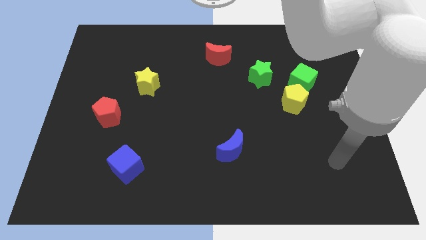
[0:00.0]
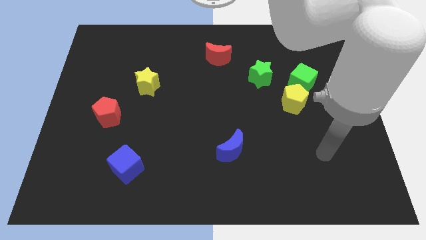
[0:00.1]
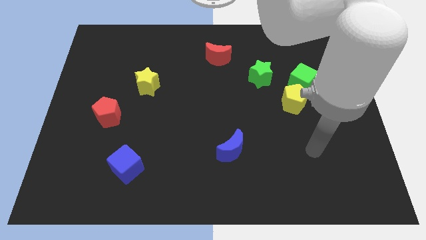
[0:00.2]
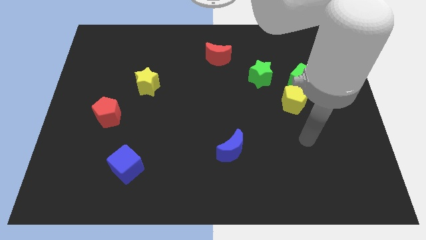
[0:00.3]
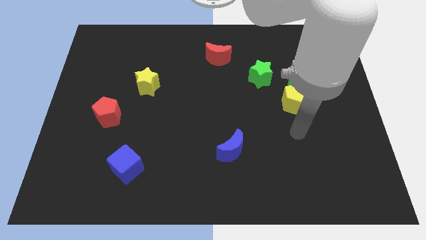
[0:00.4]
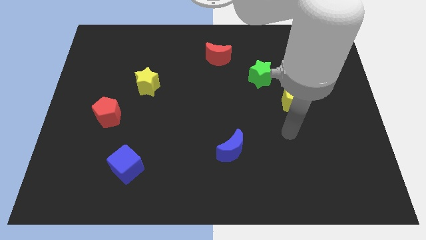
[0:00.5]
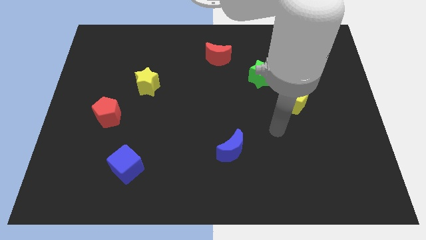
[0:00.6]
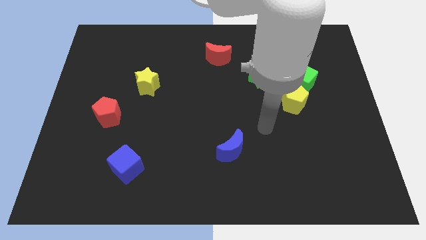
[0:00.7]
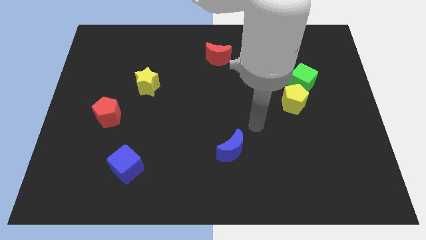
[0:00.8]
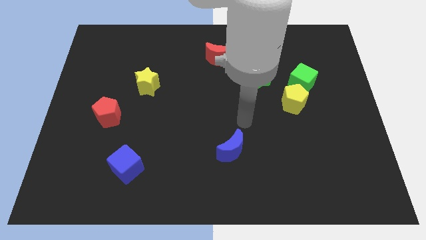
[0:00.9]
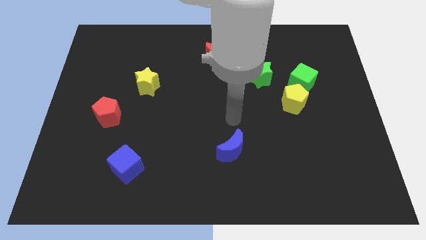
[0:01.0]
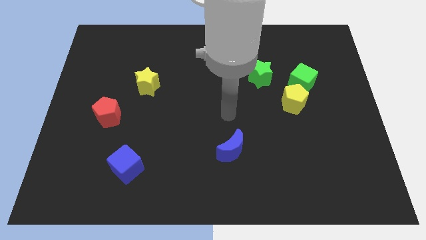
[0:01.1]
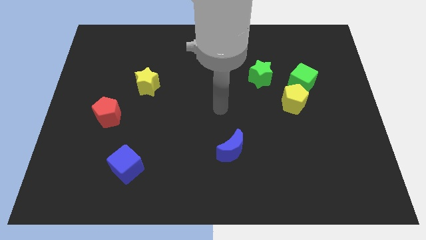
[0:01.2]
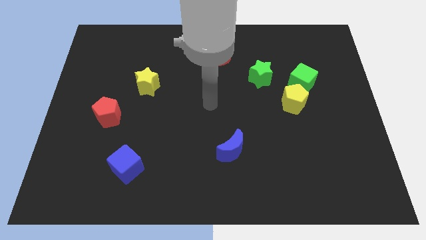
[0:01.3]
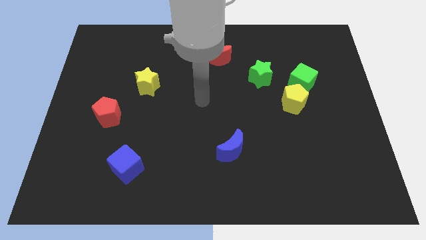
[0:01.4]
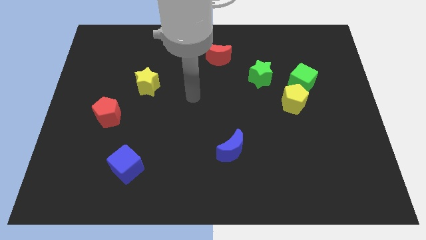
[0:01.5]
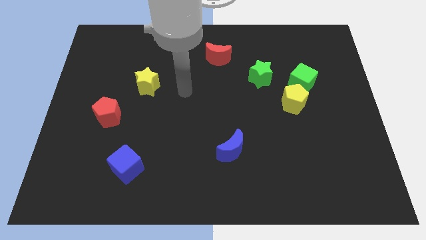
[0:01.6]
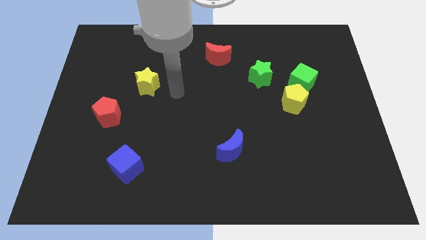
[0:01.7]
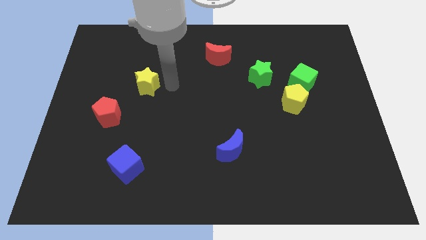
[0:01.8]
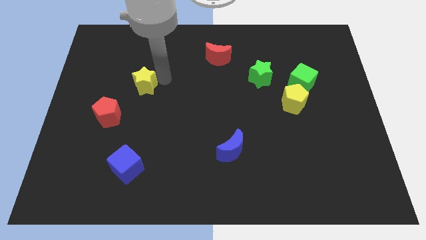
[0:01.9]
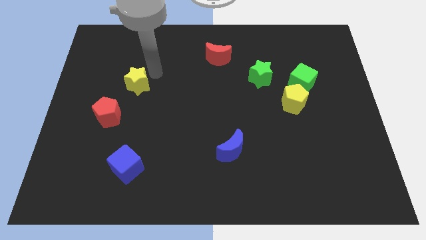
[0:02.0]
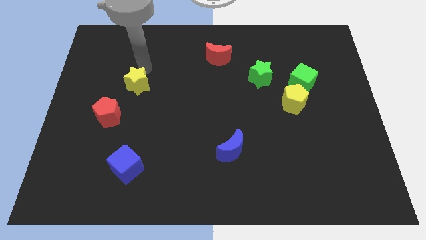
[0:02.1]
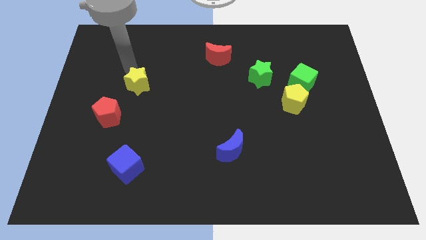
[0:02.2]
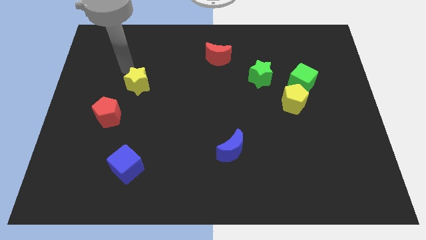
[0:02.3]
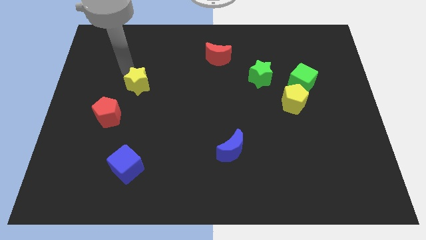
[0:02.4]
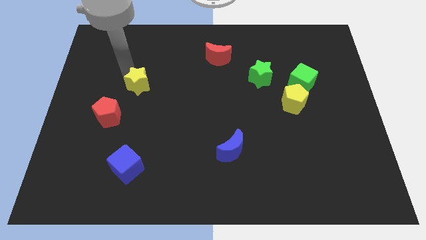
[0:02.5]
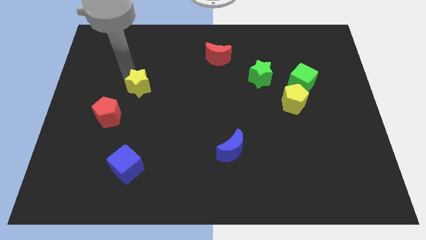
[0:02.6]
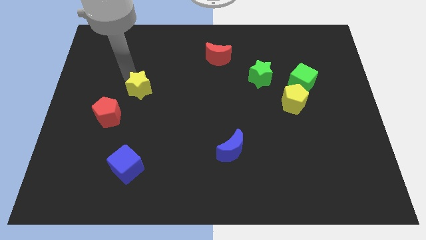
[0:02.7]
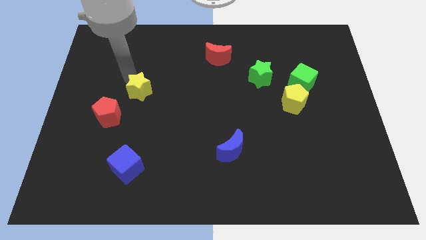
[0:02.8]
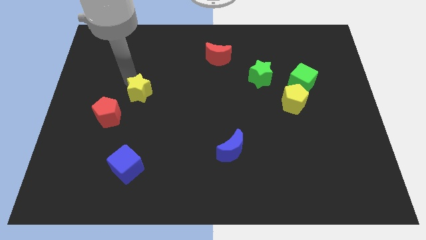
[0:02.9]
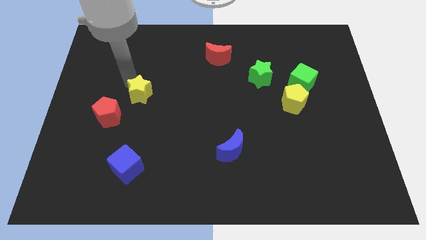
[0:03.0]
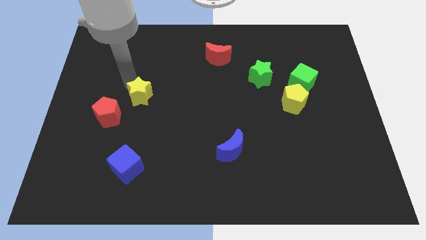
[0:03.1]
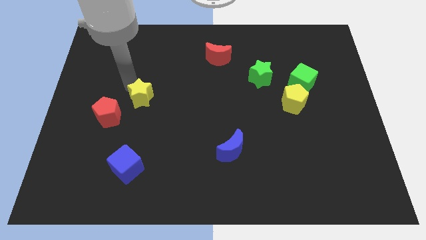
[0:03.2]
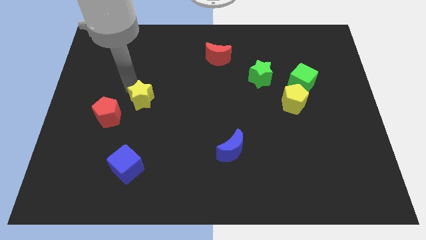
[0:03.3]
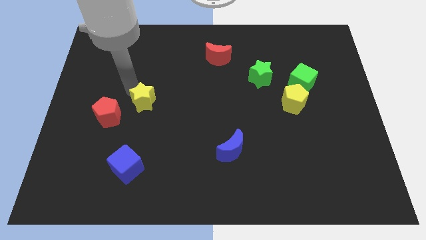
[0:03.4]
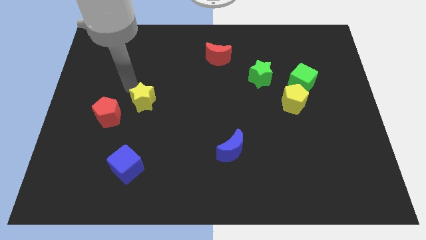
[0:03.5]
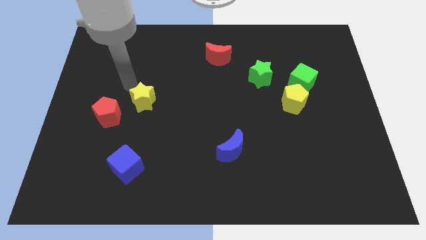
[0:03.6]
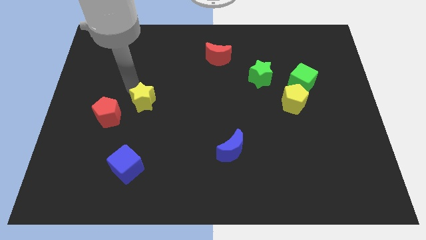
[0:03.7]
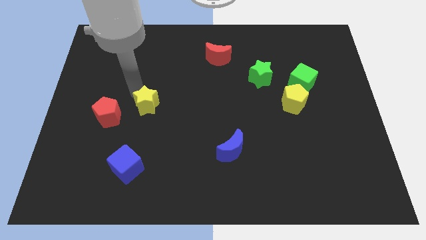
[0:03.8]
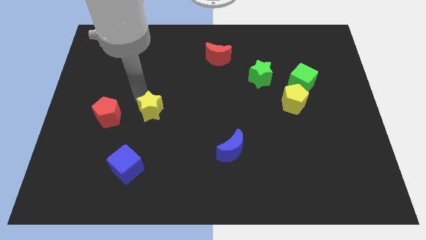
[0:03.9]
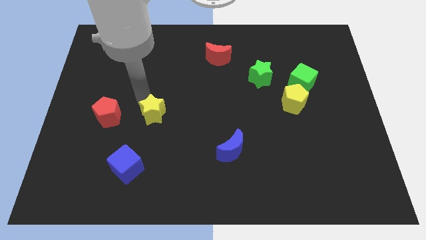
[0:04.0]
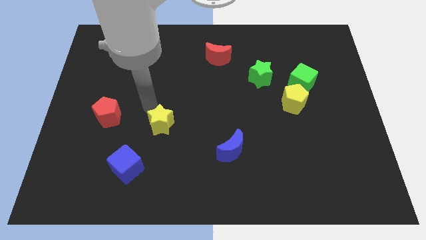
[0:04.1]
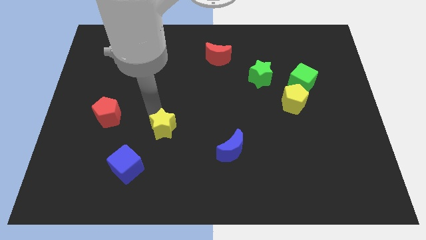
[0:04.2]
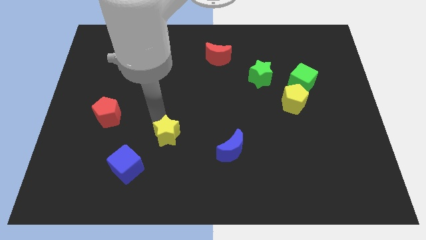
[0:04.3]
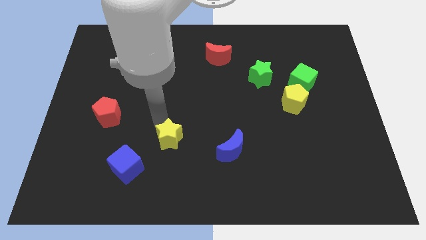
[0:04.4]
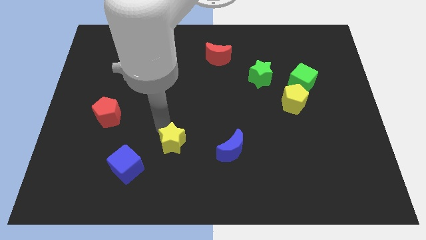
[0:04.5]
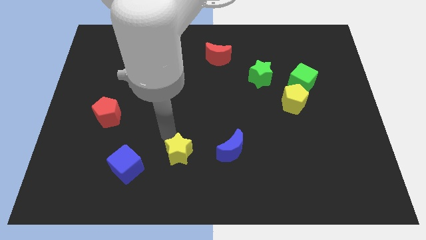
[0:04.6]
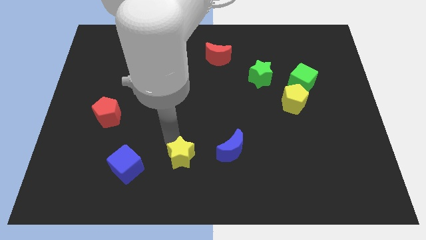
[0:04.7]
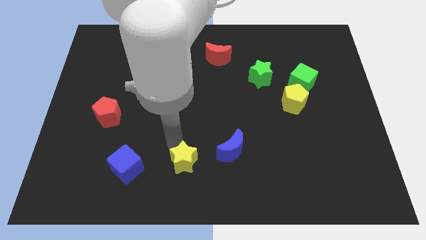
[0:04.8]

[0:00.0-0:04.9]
slide the yellow star to the bottom

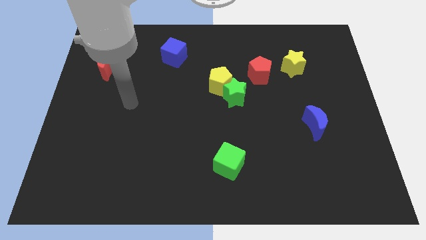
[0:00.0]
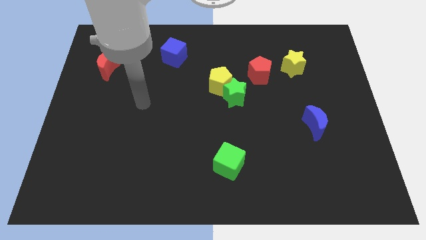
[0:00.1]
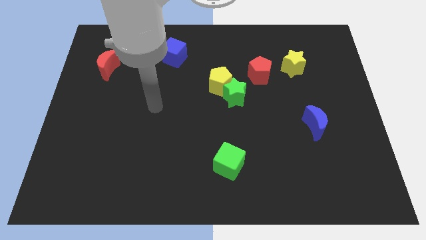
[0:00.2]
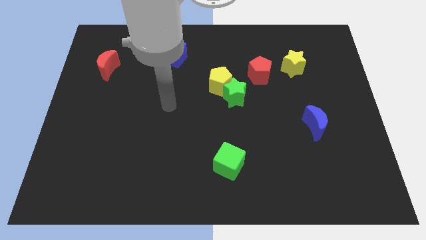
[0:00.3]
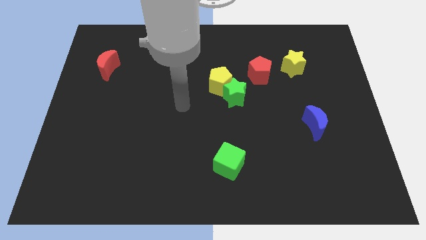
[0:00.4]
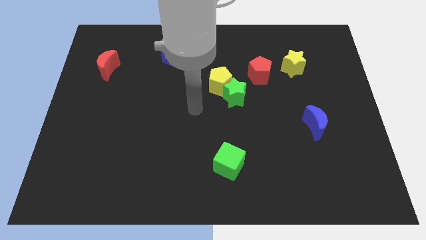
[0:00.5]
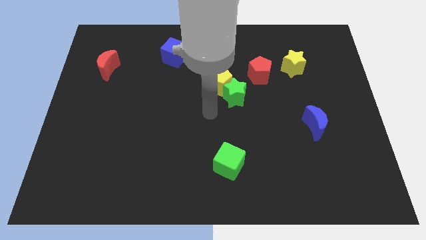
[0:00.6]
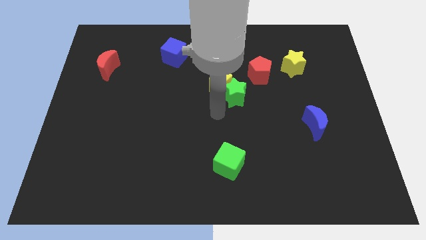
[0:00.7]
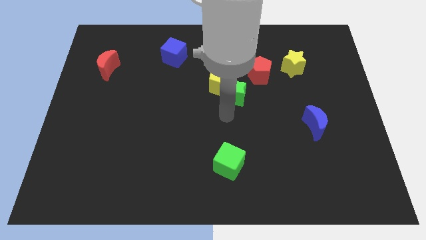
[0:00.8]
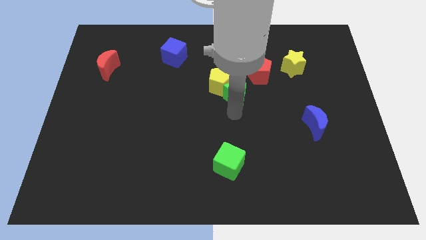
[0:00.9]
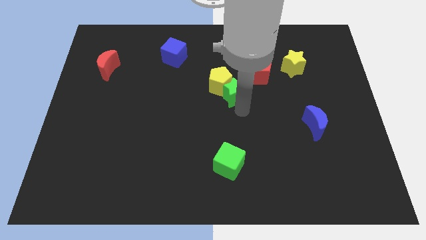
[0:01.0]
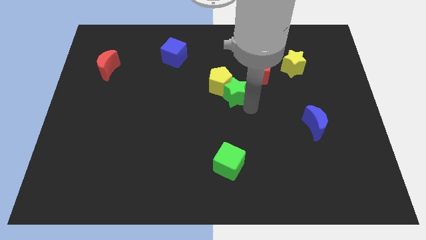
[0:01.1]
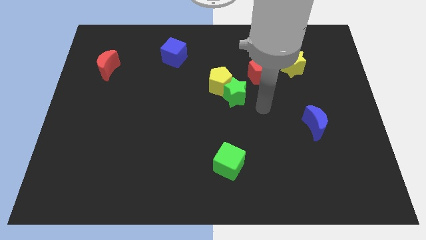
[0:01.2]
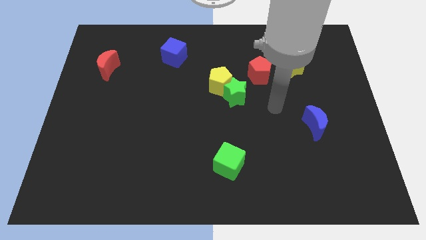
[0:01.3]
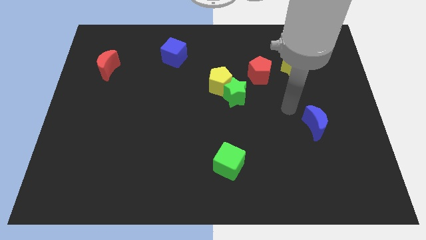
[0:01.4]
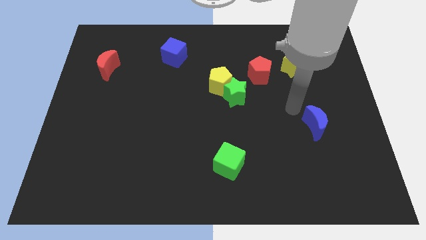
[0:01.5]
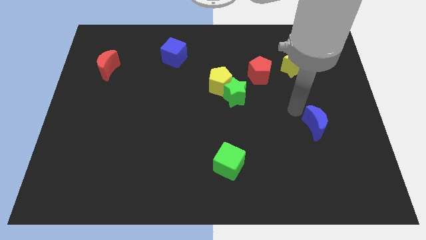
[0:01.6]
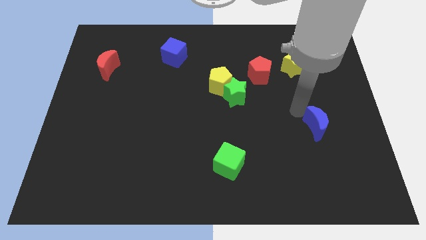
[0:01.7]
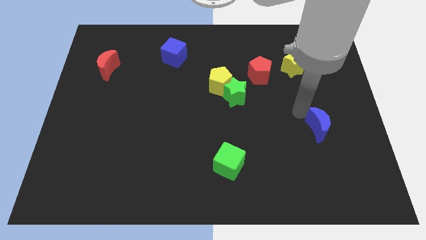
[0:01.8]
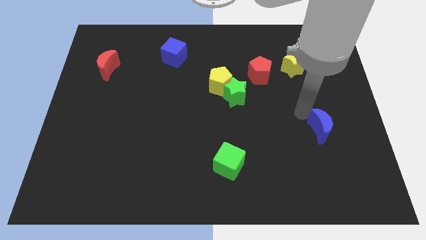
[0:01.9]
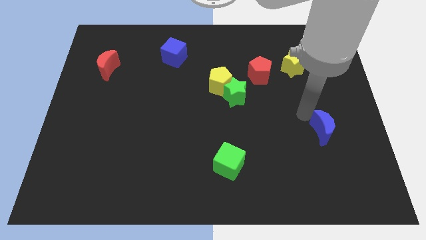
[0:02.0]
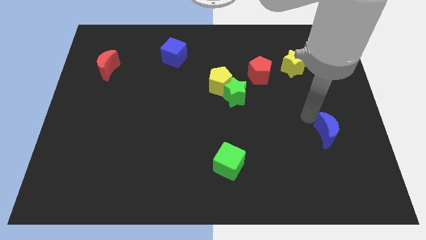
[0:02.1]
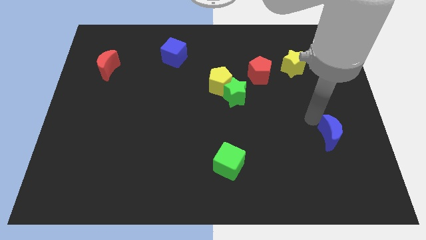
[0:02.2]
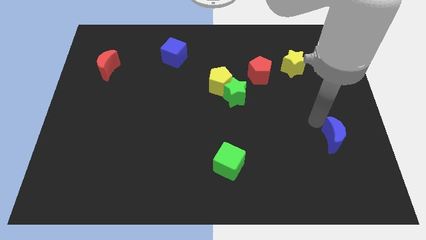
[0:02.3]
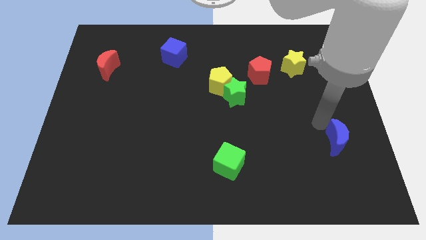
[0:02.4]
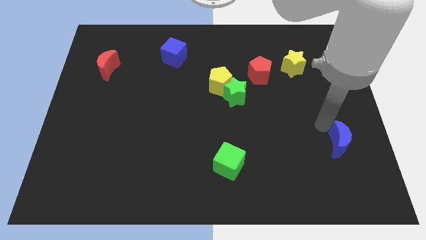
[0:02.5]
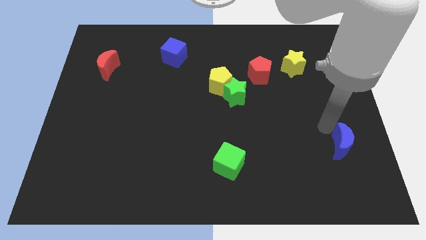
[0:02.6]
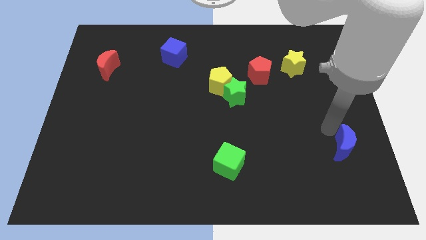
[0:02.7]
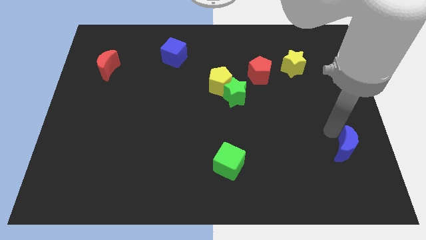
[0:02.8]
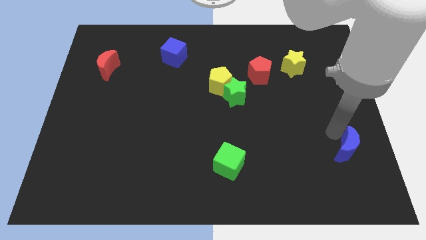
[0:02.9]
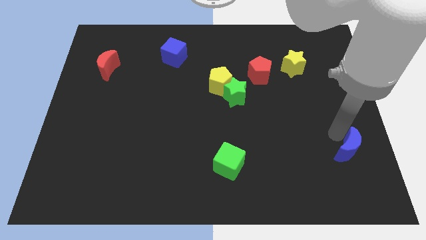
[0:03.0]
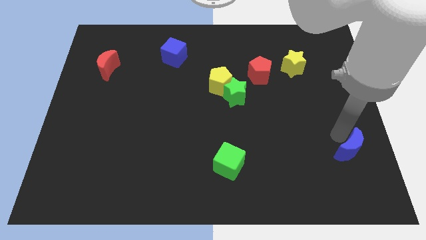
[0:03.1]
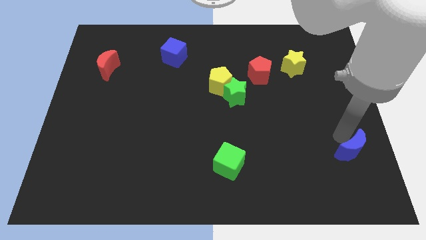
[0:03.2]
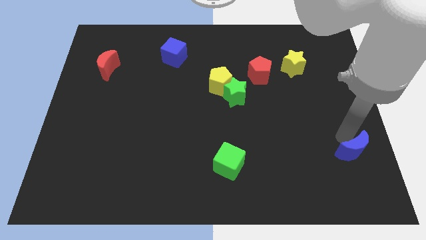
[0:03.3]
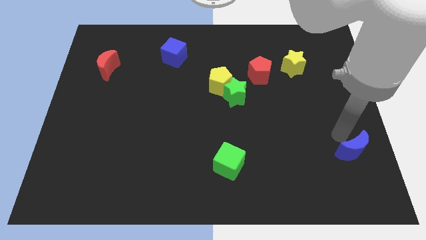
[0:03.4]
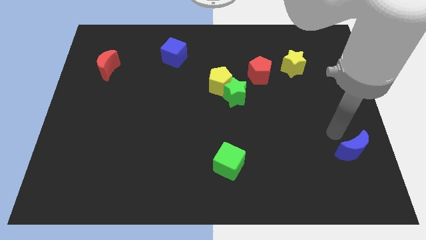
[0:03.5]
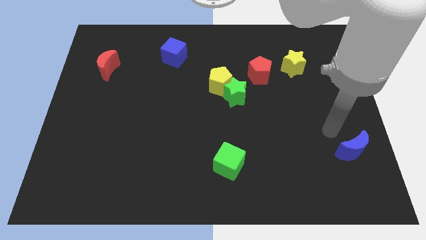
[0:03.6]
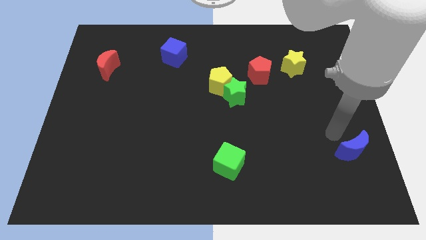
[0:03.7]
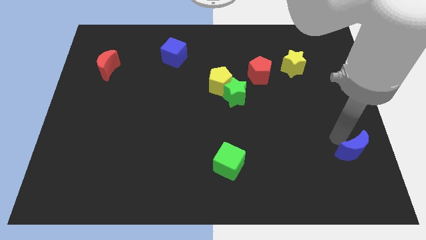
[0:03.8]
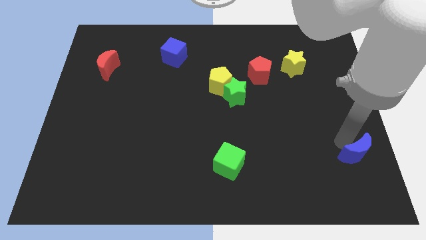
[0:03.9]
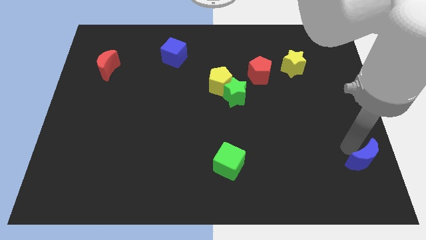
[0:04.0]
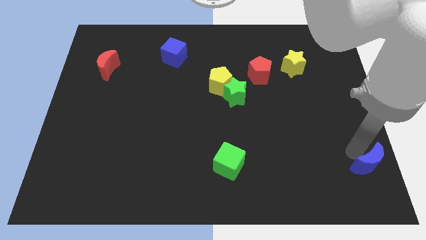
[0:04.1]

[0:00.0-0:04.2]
put the blue moon to the bottom right
